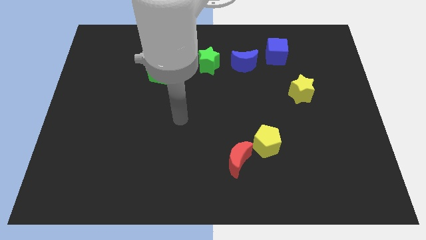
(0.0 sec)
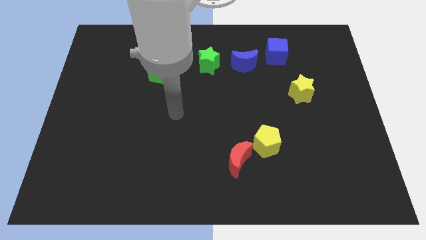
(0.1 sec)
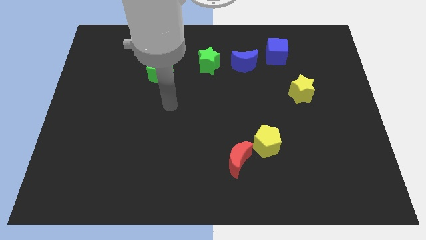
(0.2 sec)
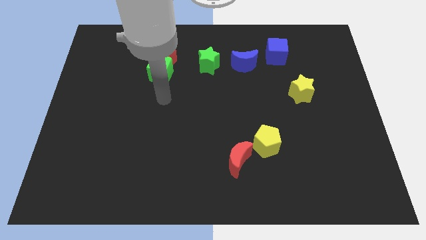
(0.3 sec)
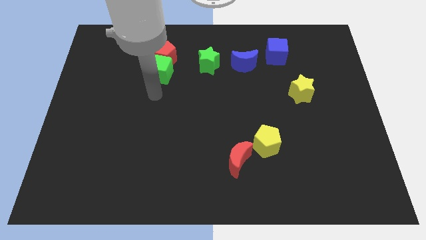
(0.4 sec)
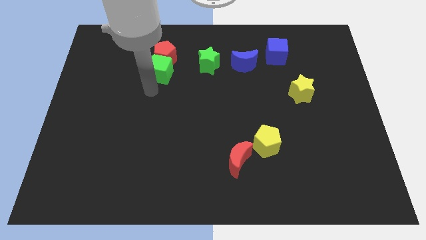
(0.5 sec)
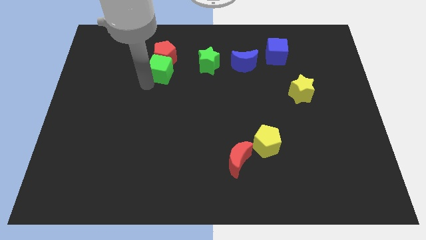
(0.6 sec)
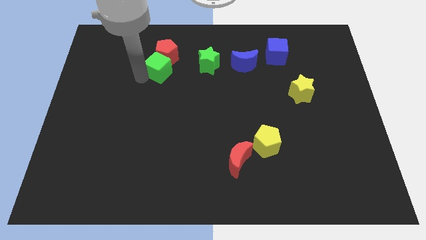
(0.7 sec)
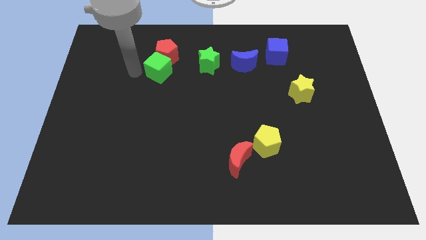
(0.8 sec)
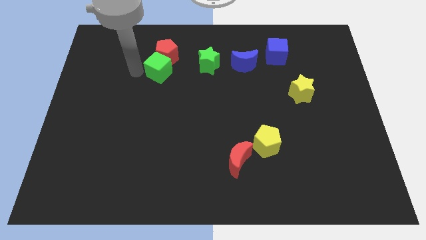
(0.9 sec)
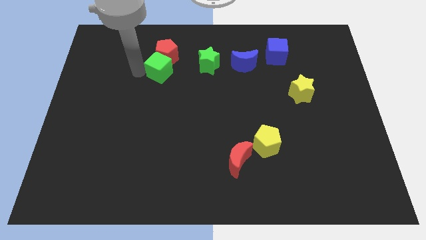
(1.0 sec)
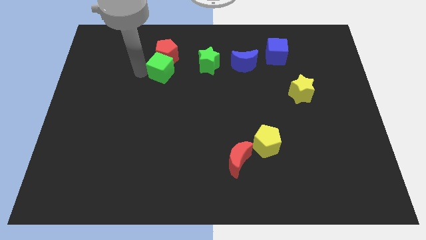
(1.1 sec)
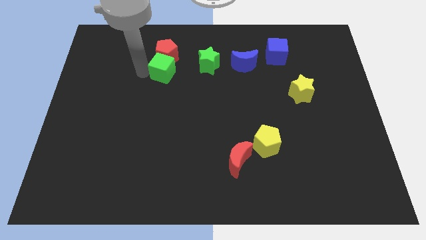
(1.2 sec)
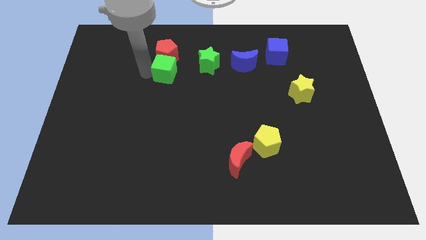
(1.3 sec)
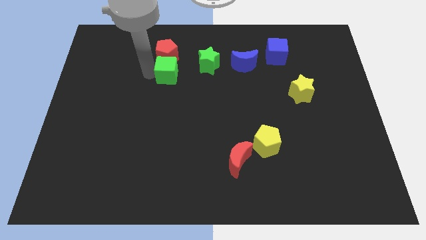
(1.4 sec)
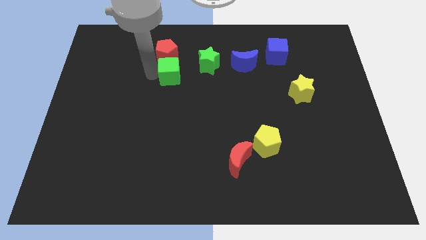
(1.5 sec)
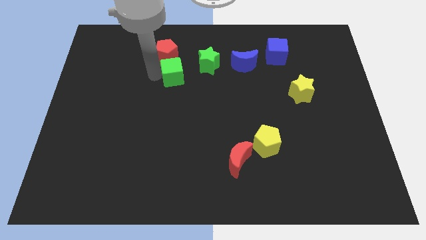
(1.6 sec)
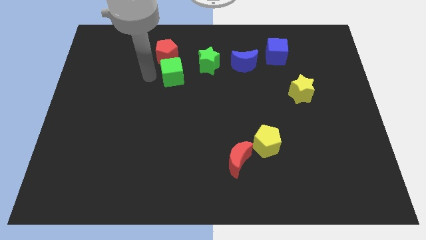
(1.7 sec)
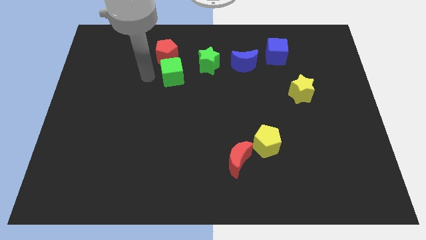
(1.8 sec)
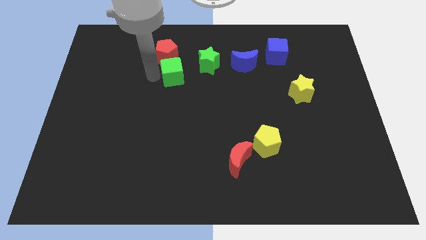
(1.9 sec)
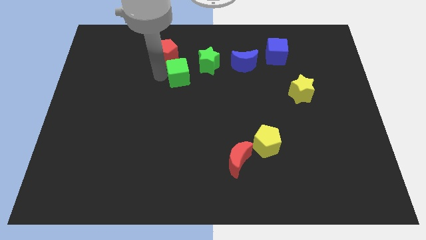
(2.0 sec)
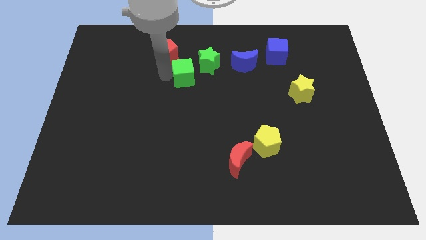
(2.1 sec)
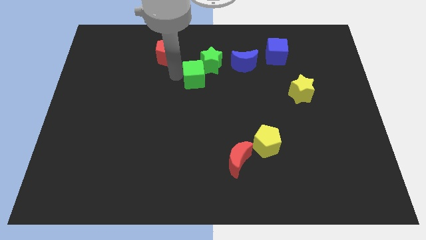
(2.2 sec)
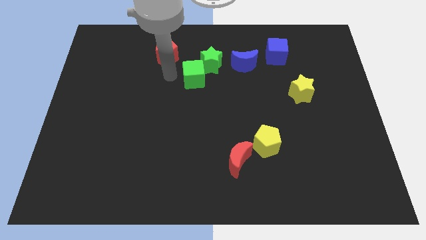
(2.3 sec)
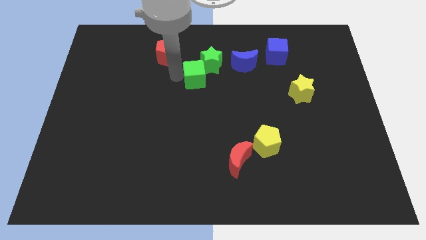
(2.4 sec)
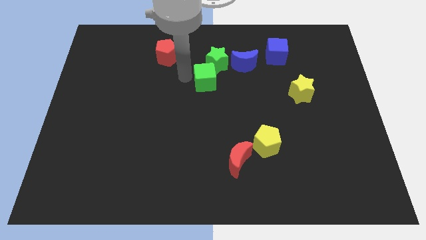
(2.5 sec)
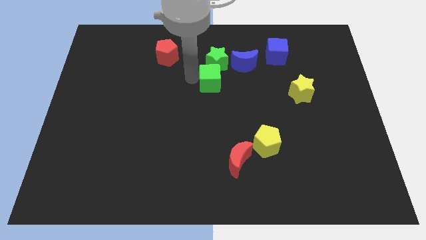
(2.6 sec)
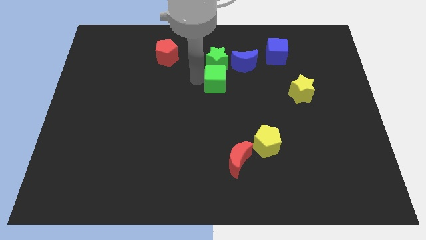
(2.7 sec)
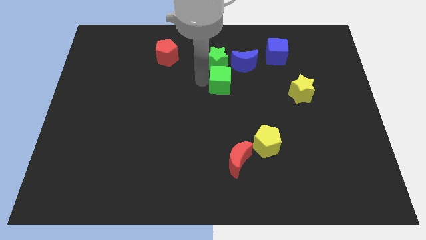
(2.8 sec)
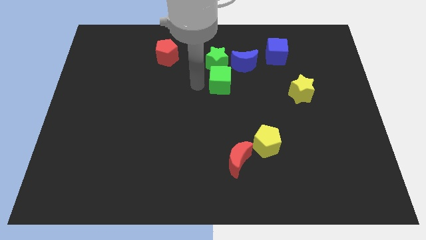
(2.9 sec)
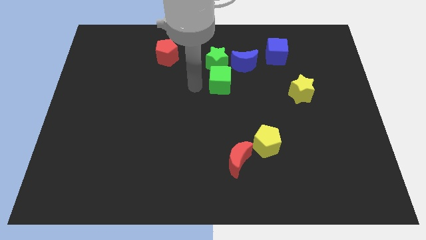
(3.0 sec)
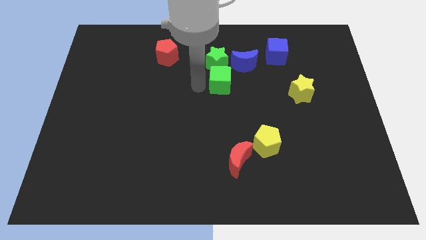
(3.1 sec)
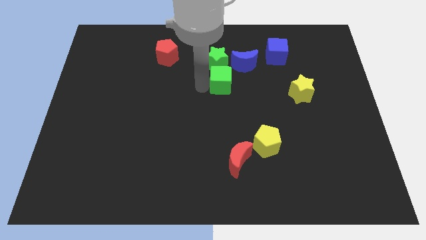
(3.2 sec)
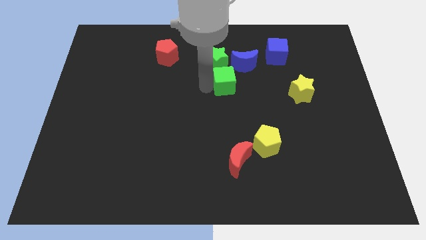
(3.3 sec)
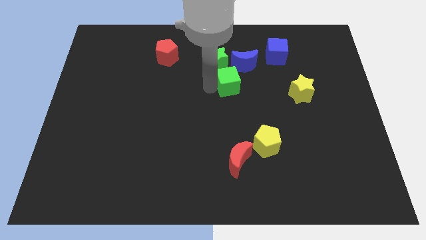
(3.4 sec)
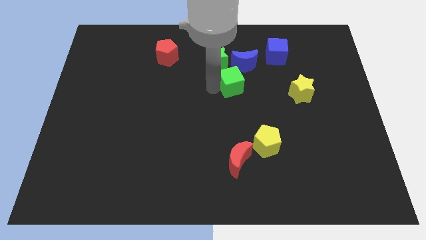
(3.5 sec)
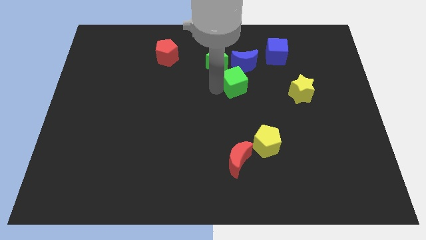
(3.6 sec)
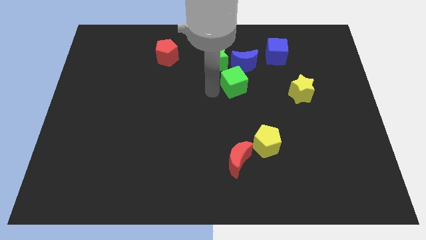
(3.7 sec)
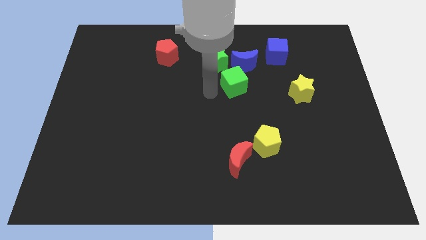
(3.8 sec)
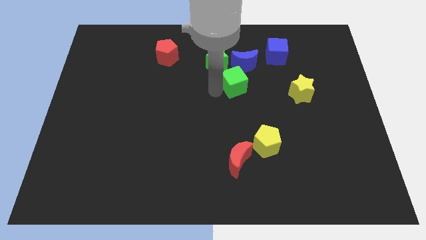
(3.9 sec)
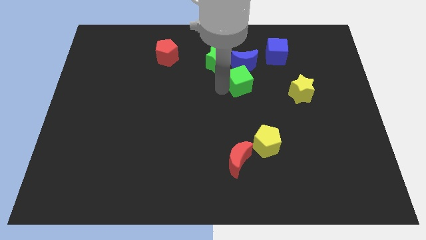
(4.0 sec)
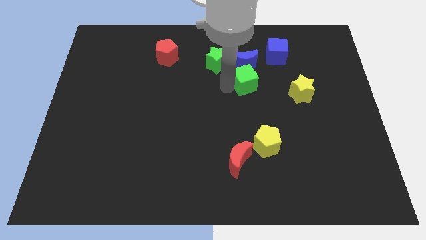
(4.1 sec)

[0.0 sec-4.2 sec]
move the green cube to the right

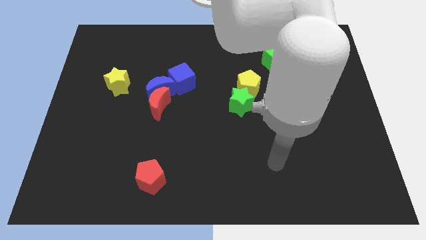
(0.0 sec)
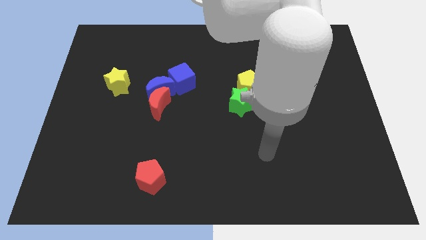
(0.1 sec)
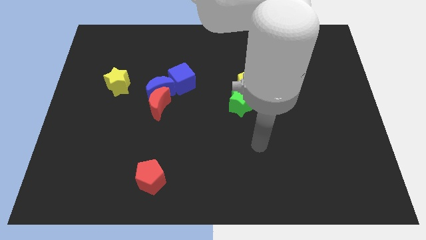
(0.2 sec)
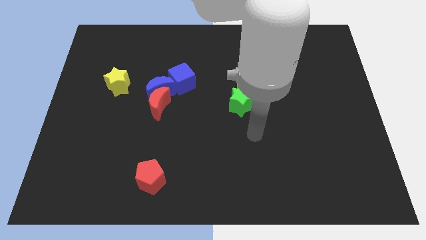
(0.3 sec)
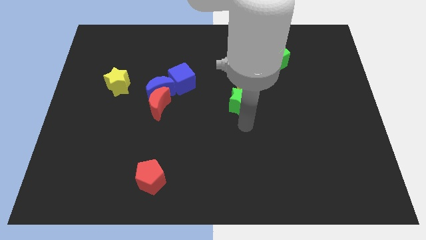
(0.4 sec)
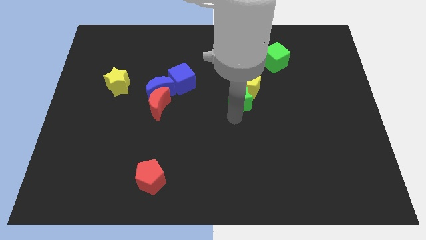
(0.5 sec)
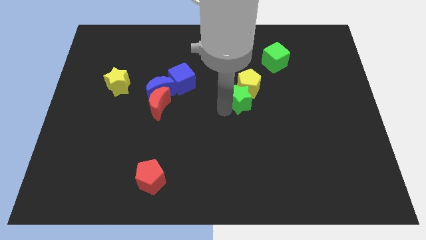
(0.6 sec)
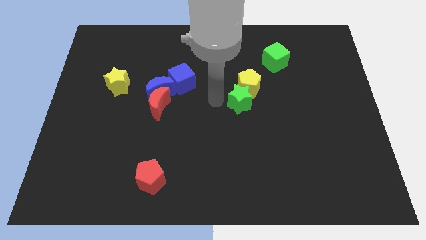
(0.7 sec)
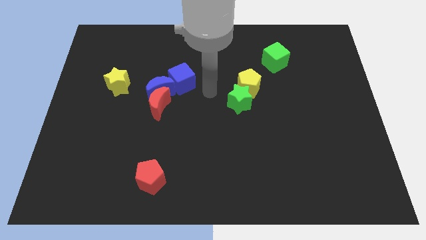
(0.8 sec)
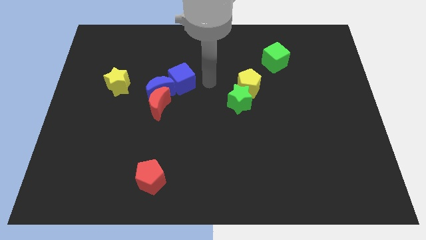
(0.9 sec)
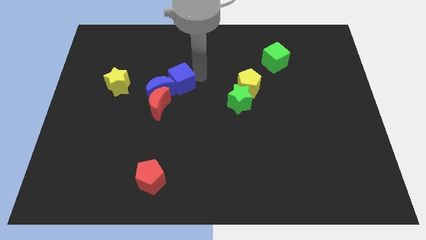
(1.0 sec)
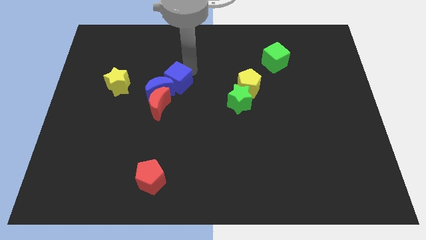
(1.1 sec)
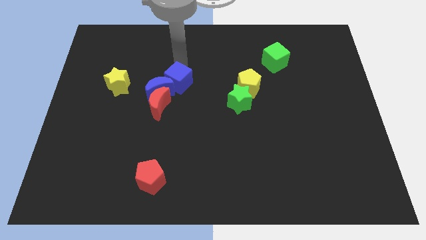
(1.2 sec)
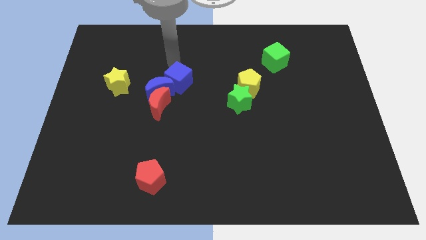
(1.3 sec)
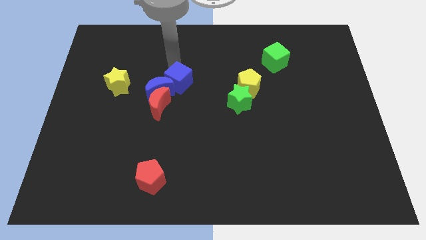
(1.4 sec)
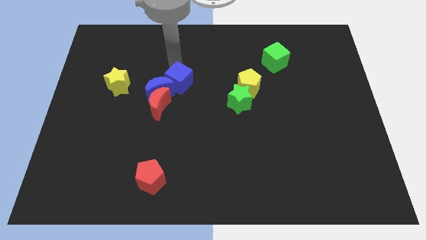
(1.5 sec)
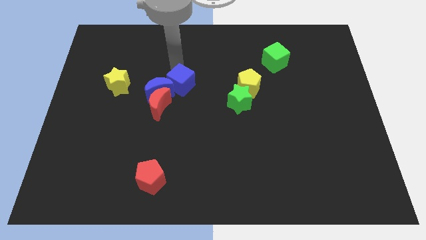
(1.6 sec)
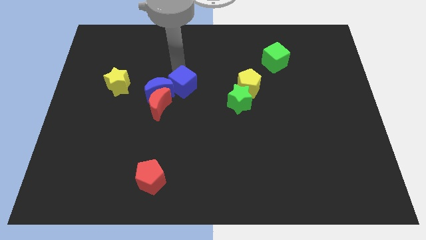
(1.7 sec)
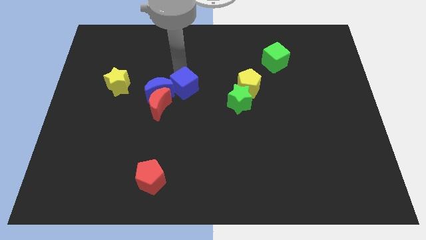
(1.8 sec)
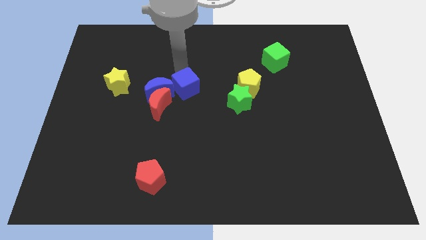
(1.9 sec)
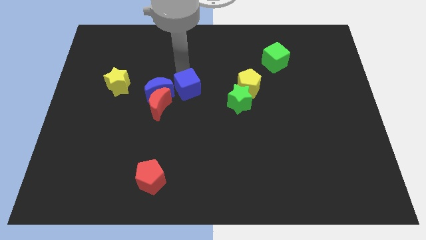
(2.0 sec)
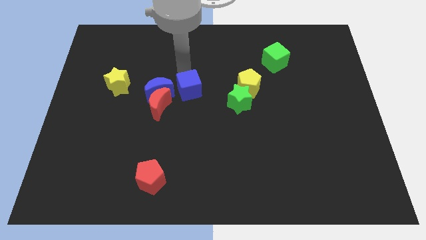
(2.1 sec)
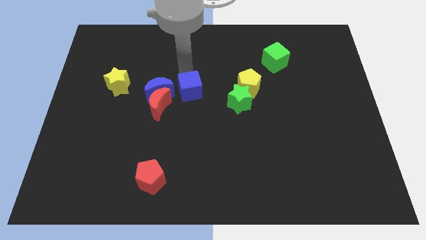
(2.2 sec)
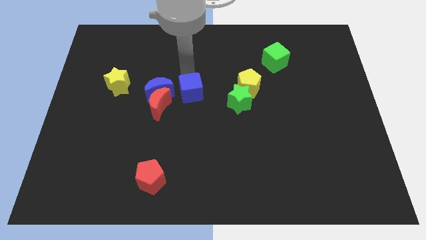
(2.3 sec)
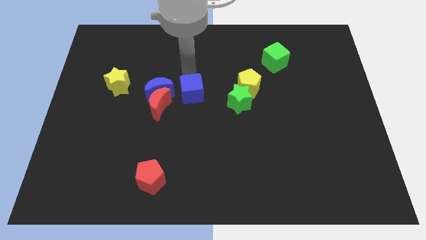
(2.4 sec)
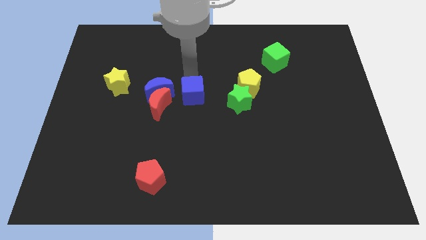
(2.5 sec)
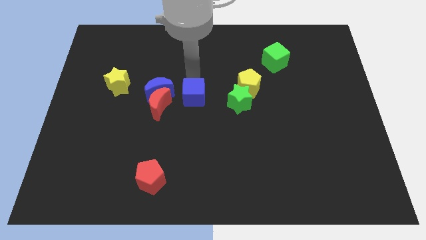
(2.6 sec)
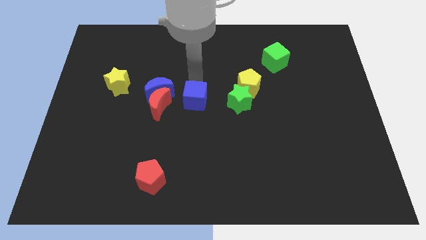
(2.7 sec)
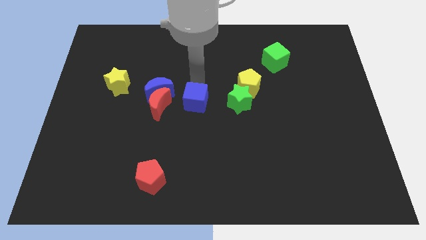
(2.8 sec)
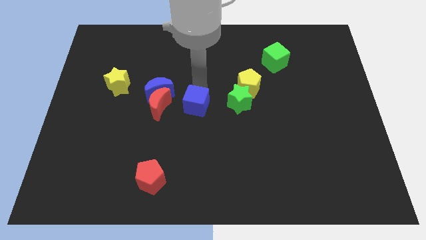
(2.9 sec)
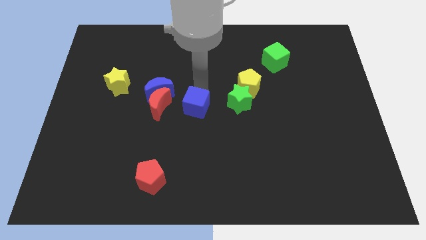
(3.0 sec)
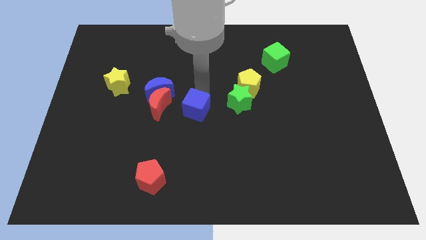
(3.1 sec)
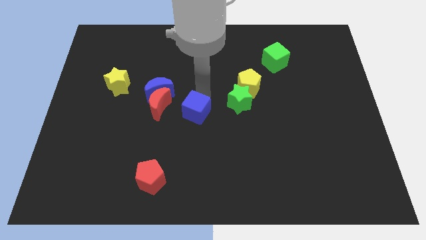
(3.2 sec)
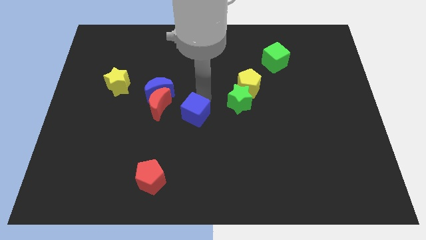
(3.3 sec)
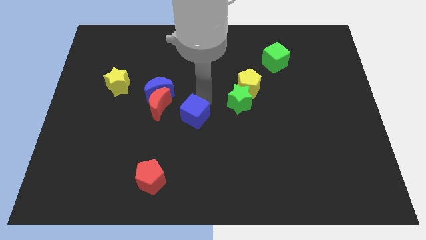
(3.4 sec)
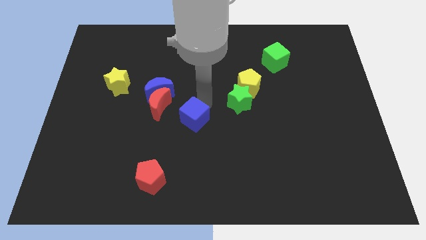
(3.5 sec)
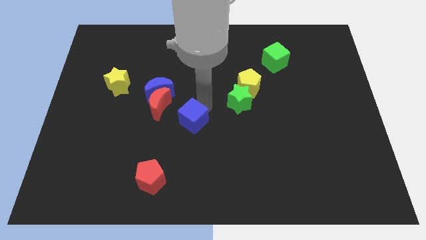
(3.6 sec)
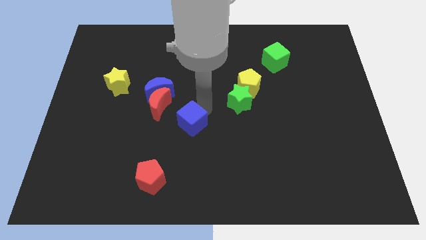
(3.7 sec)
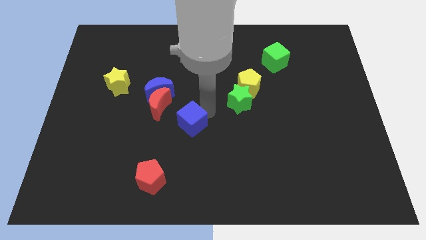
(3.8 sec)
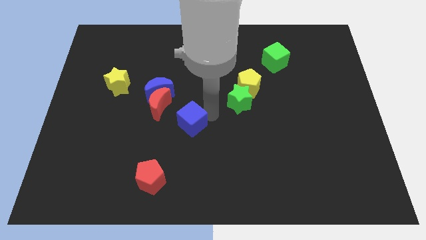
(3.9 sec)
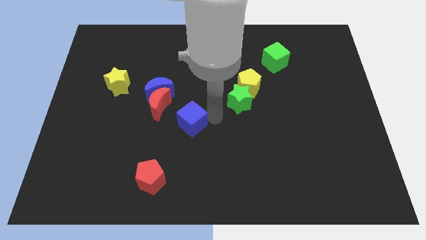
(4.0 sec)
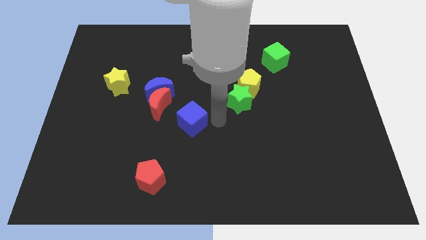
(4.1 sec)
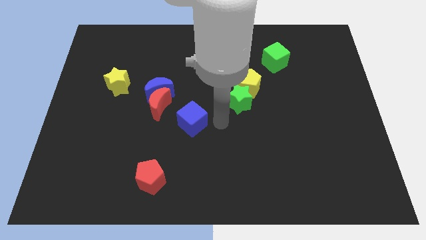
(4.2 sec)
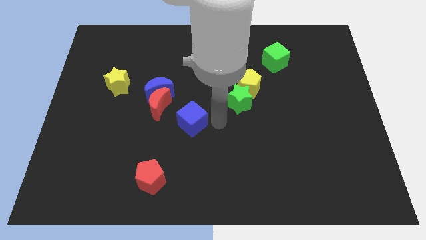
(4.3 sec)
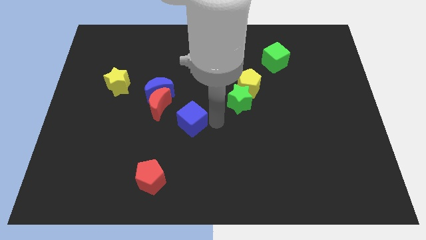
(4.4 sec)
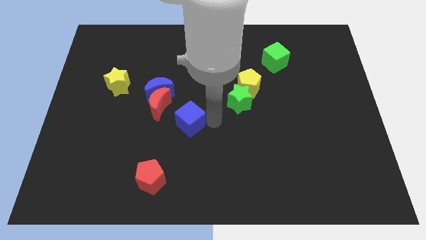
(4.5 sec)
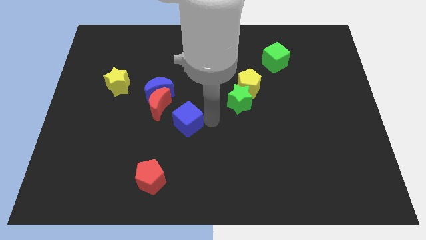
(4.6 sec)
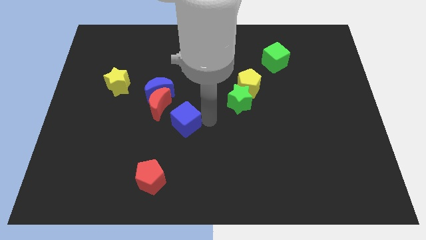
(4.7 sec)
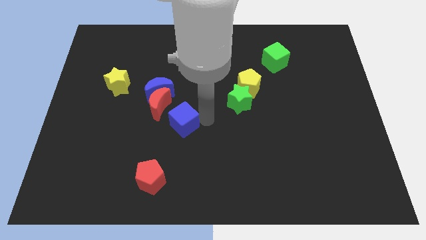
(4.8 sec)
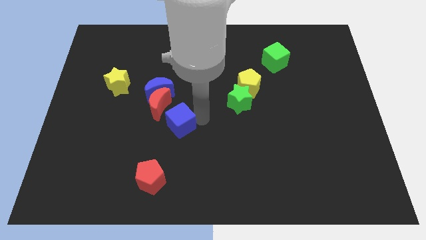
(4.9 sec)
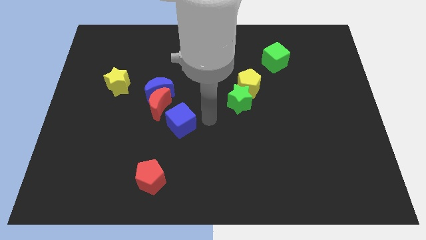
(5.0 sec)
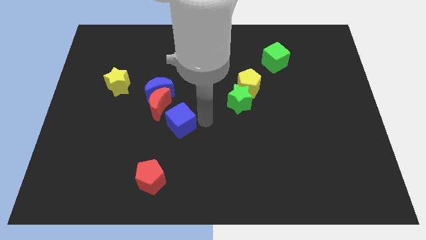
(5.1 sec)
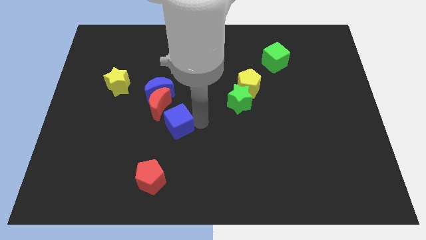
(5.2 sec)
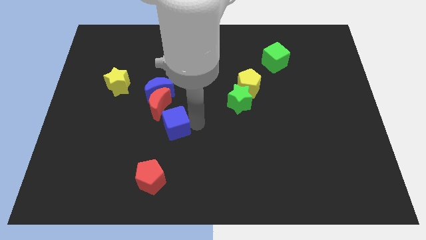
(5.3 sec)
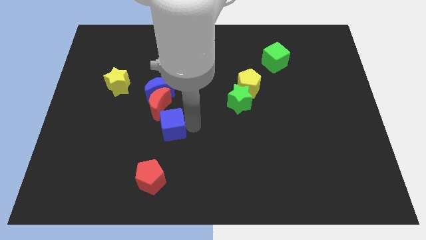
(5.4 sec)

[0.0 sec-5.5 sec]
slide the blue cube down and to the left diagonally slightly
